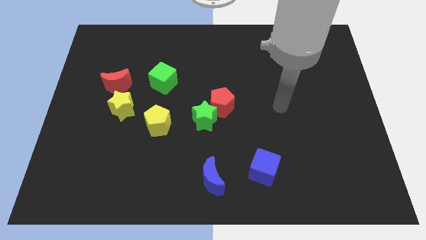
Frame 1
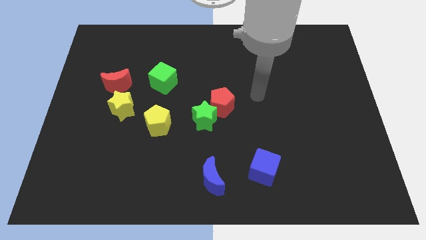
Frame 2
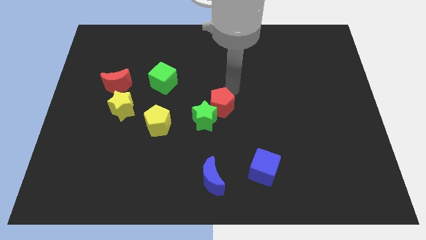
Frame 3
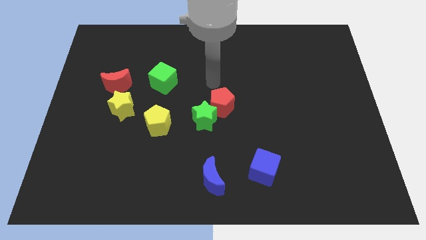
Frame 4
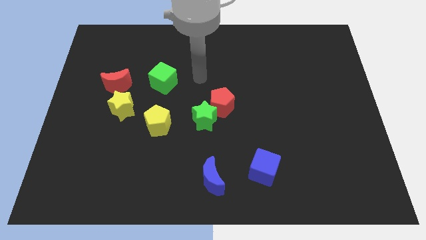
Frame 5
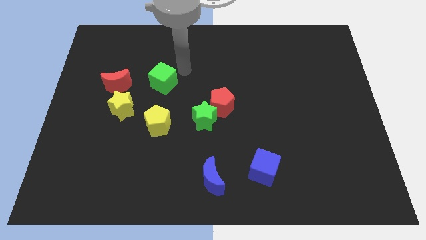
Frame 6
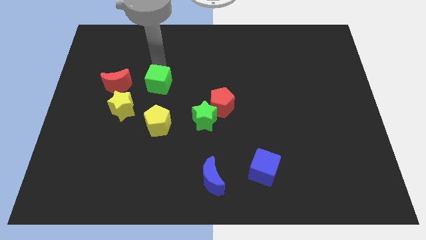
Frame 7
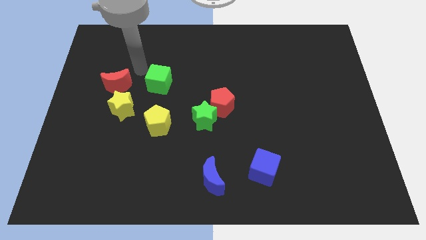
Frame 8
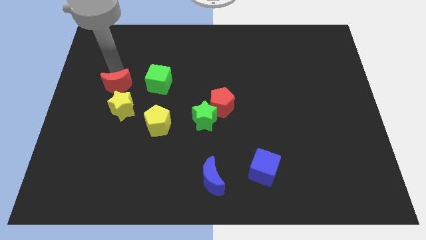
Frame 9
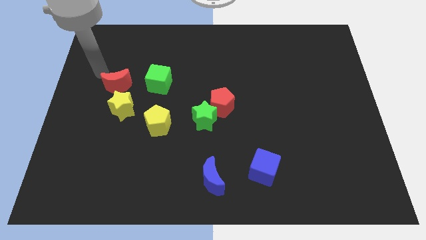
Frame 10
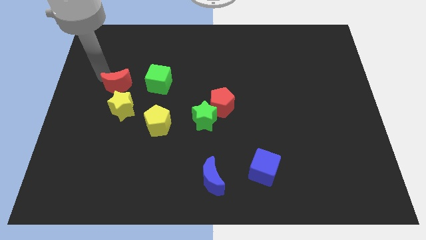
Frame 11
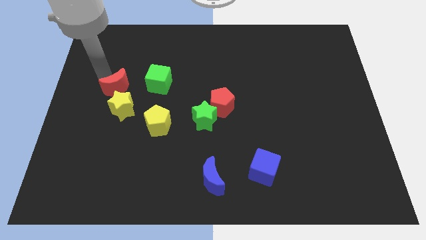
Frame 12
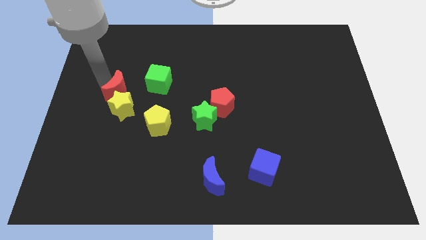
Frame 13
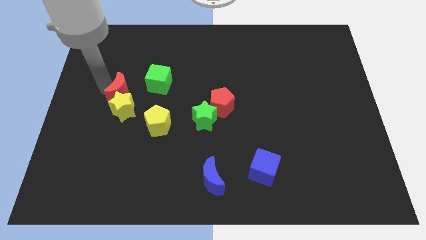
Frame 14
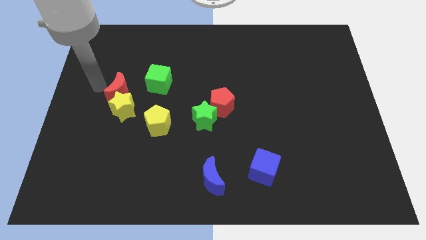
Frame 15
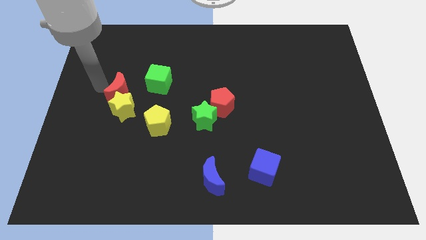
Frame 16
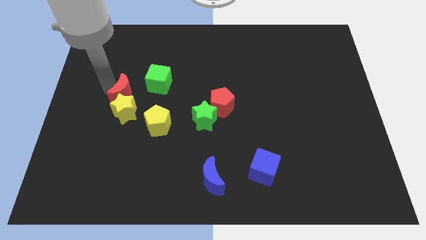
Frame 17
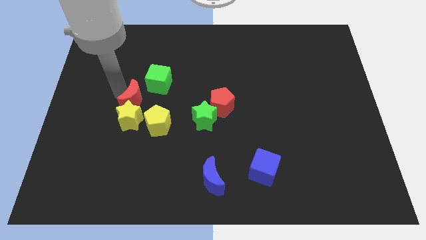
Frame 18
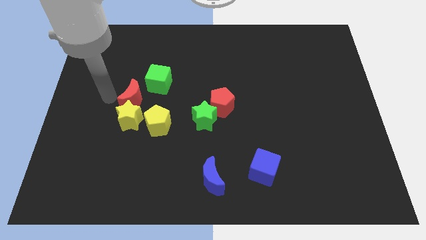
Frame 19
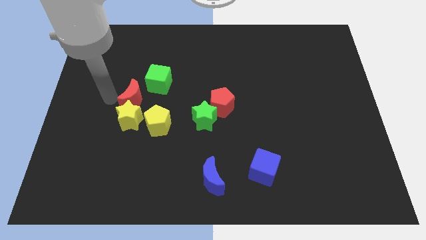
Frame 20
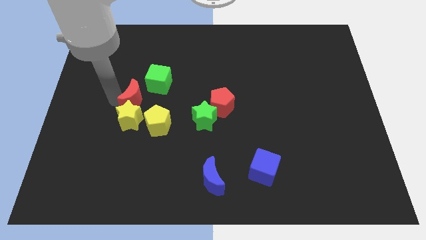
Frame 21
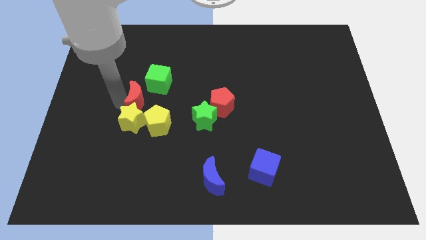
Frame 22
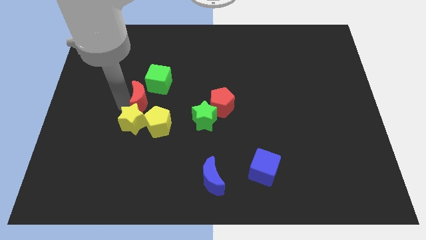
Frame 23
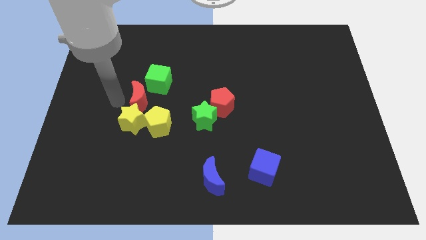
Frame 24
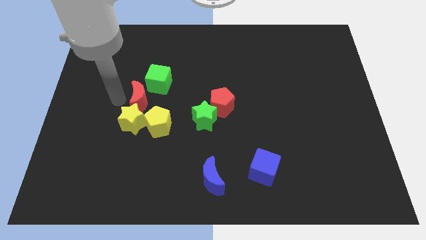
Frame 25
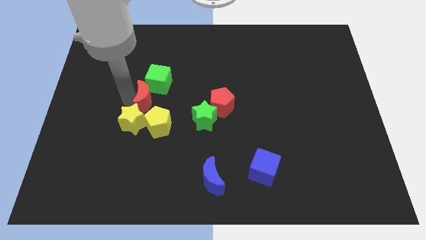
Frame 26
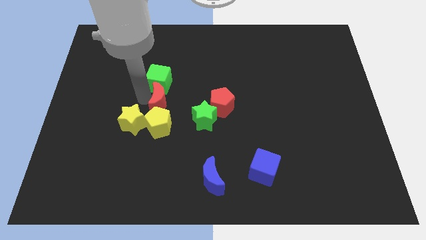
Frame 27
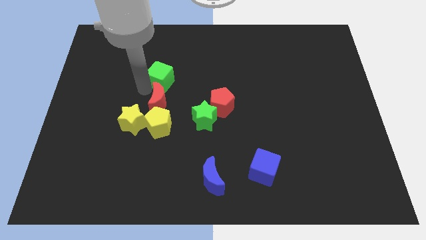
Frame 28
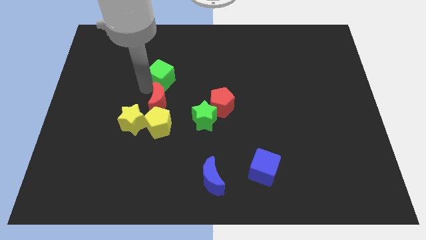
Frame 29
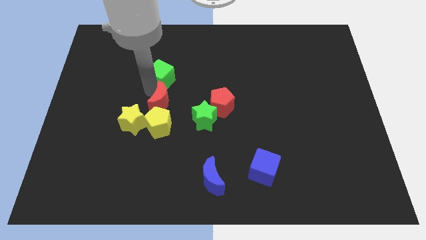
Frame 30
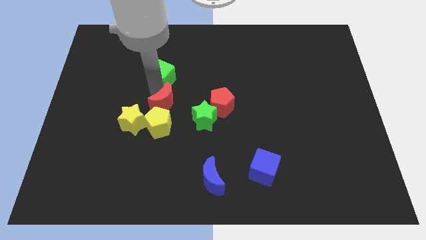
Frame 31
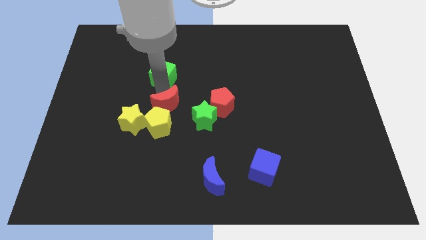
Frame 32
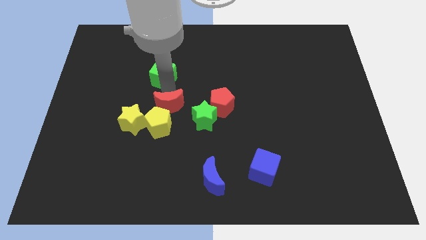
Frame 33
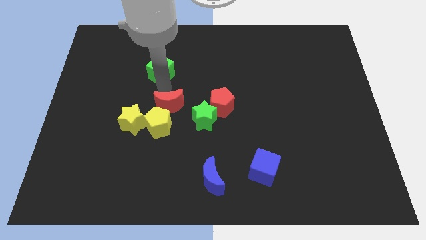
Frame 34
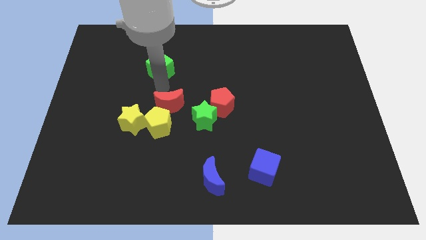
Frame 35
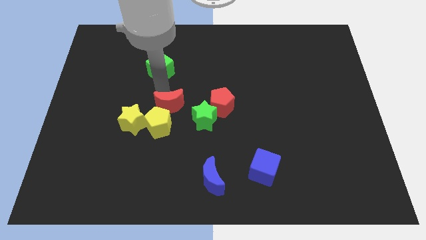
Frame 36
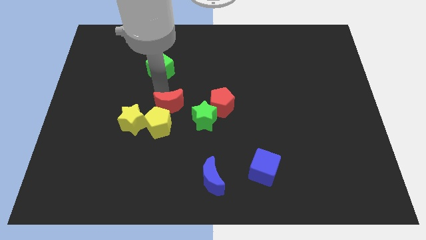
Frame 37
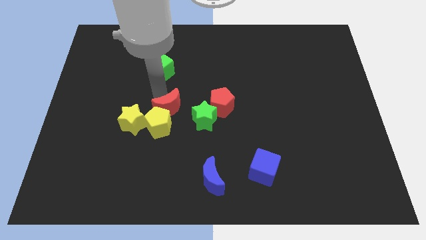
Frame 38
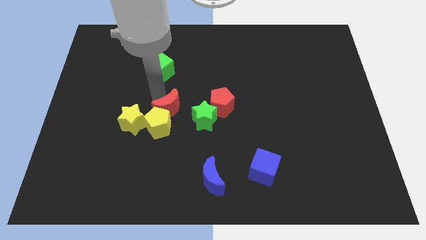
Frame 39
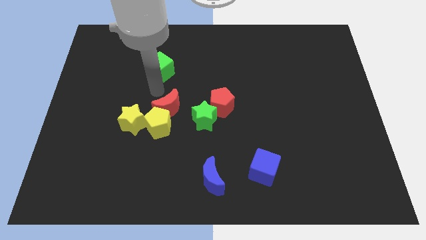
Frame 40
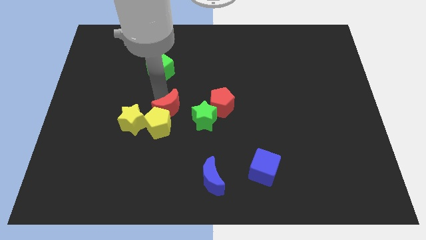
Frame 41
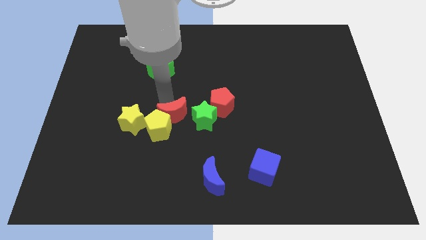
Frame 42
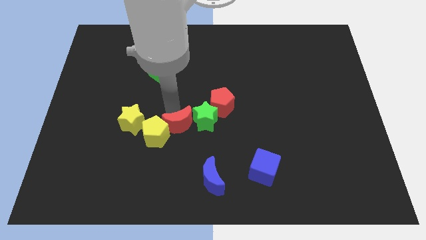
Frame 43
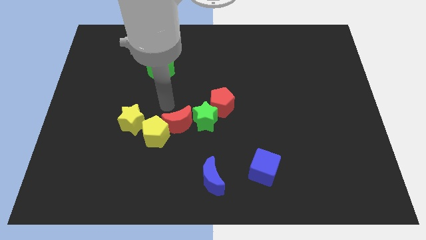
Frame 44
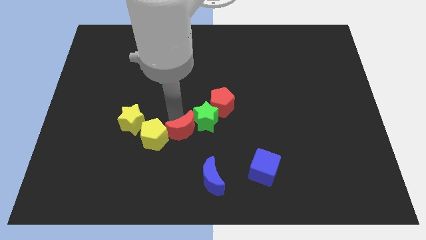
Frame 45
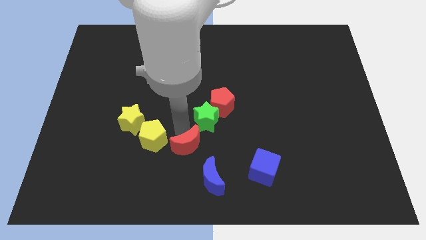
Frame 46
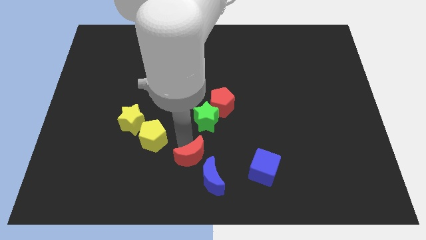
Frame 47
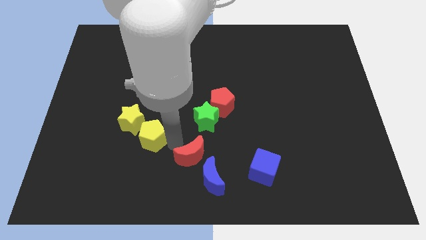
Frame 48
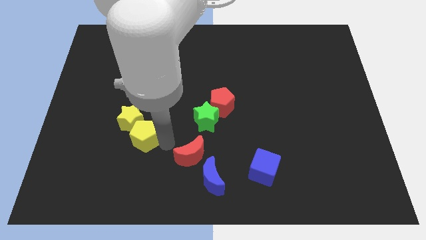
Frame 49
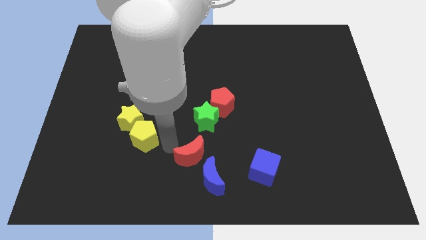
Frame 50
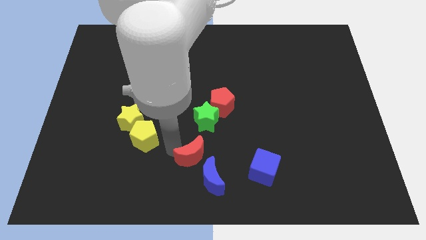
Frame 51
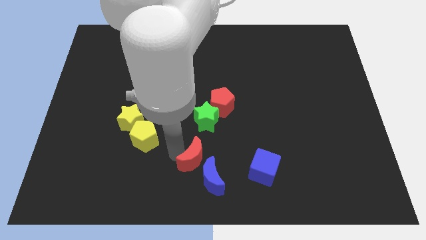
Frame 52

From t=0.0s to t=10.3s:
push the red moon close to the blue moon

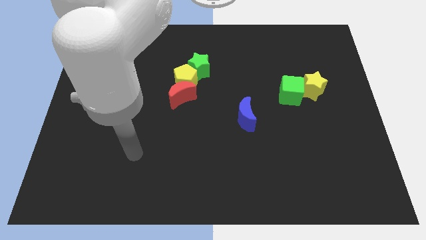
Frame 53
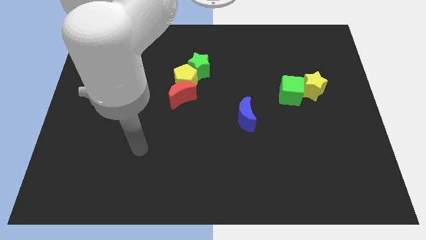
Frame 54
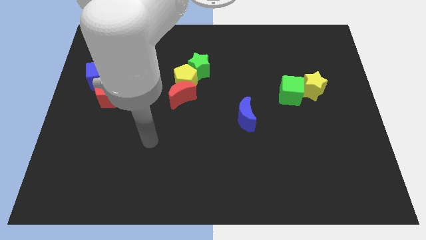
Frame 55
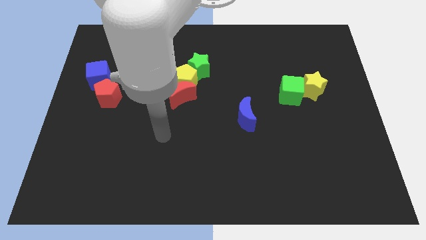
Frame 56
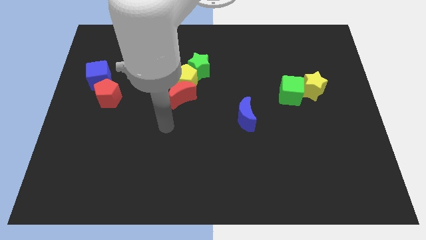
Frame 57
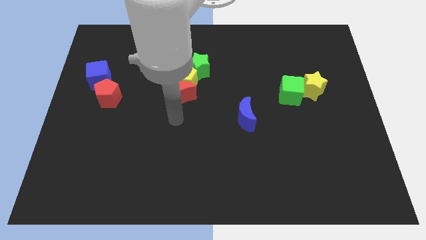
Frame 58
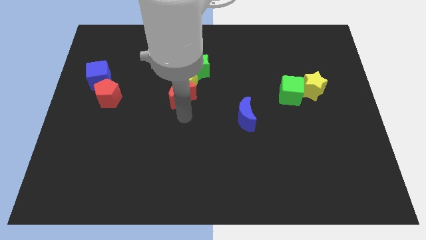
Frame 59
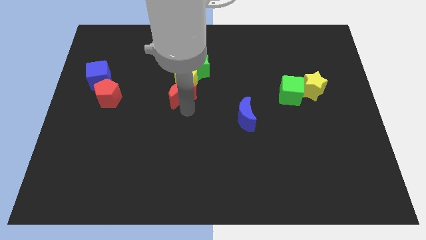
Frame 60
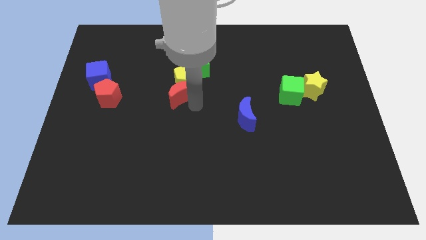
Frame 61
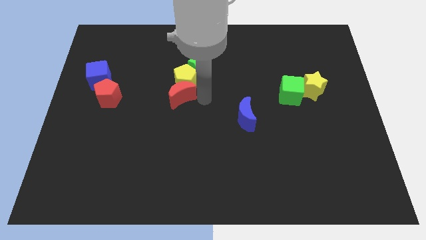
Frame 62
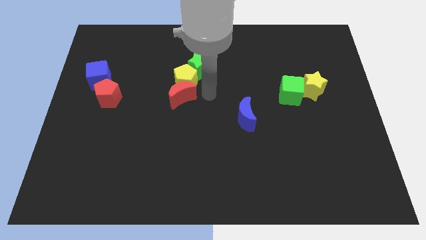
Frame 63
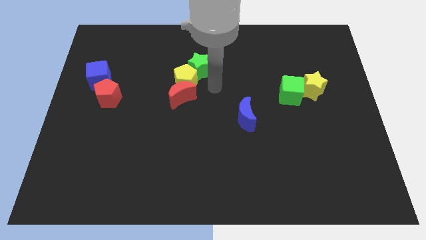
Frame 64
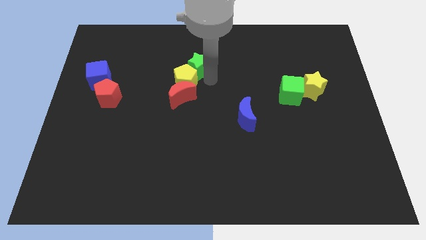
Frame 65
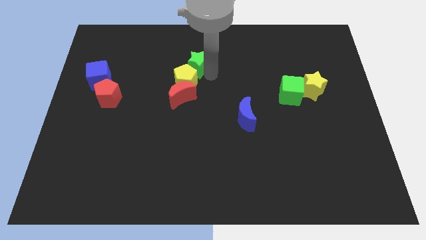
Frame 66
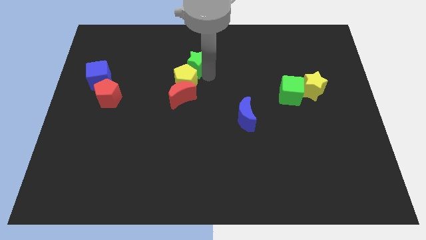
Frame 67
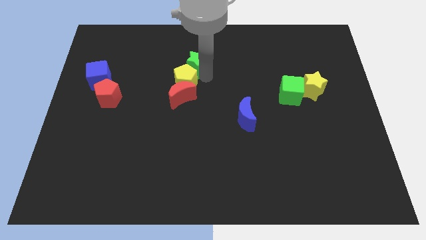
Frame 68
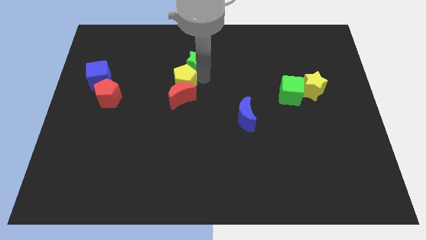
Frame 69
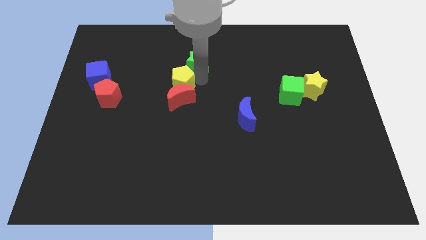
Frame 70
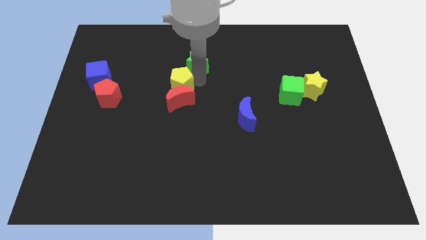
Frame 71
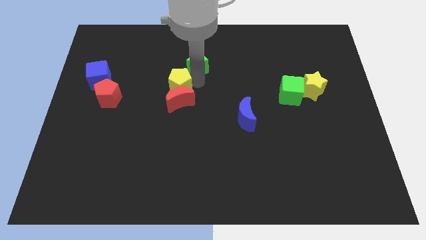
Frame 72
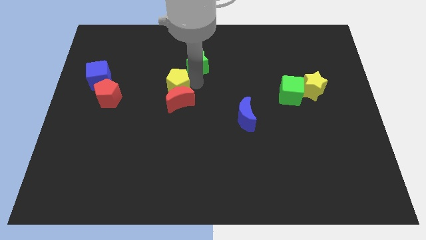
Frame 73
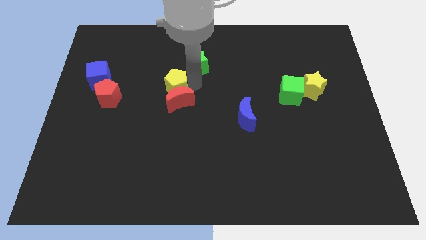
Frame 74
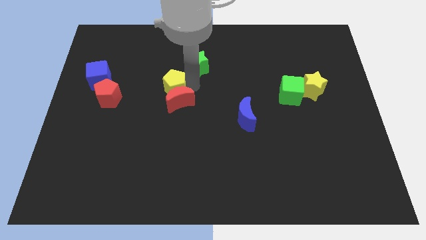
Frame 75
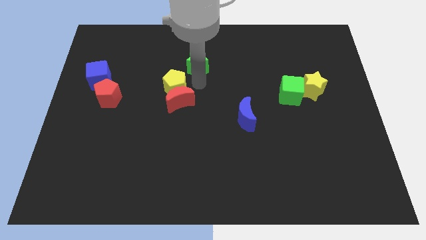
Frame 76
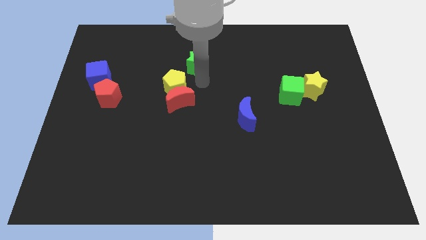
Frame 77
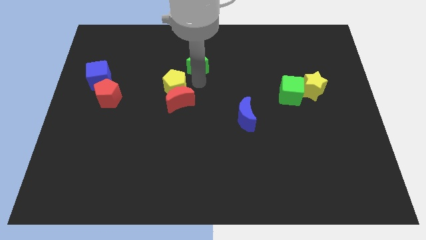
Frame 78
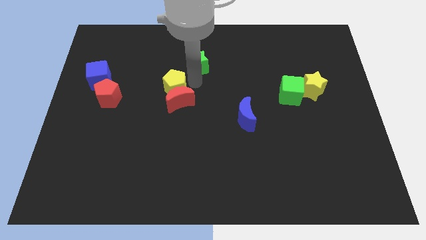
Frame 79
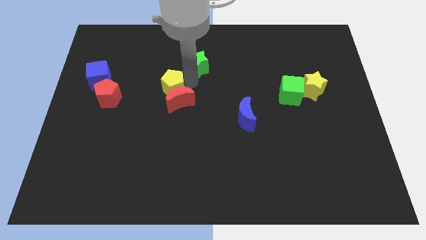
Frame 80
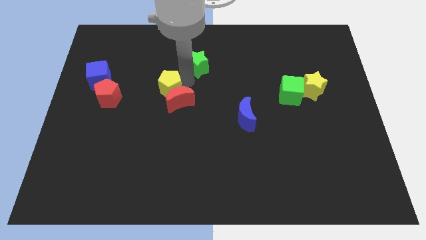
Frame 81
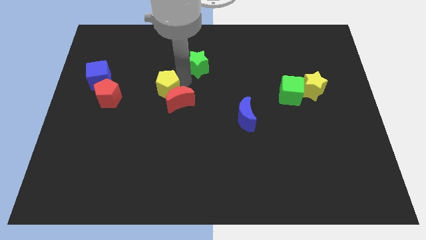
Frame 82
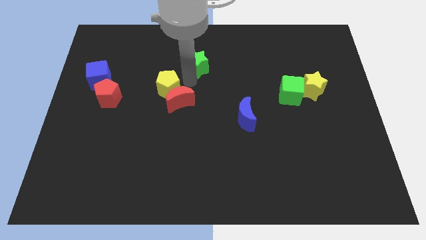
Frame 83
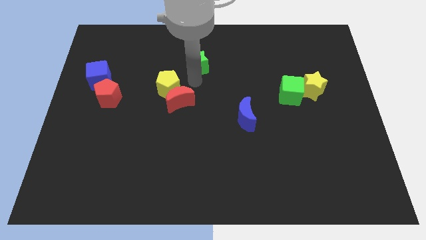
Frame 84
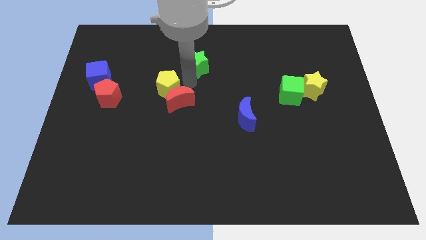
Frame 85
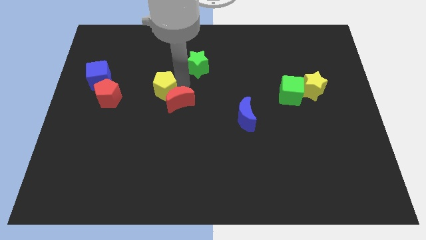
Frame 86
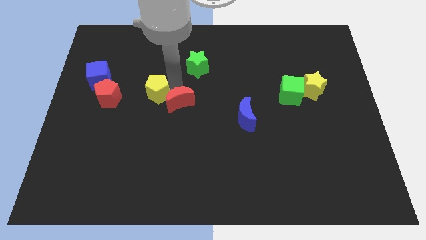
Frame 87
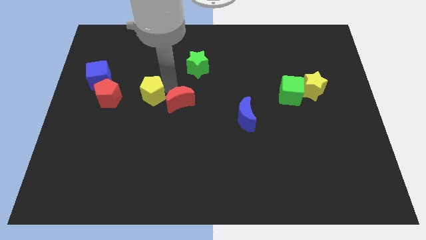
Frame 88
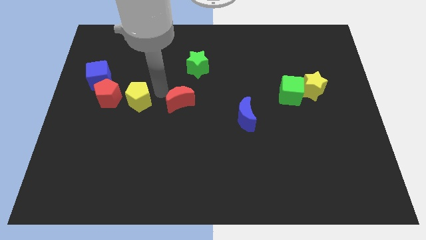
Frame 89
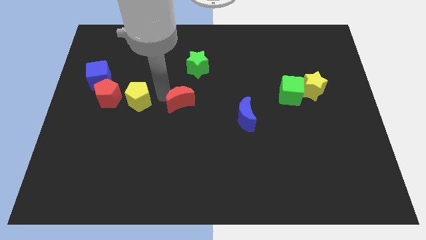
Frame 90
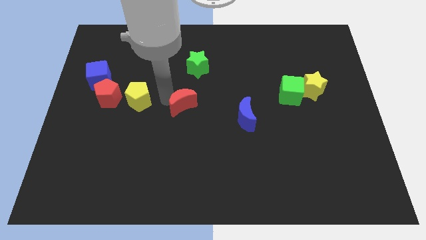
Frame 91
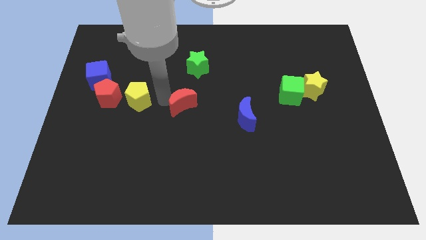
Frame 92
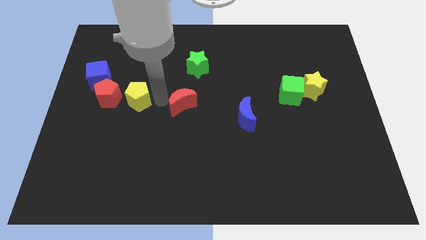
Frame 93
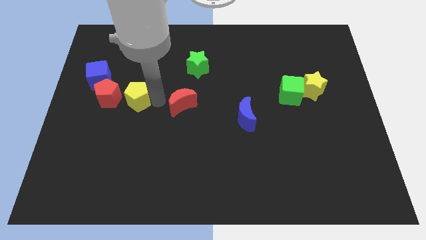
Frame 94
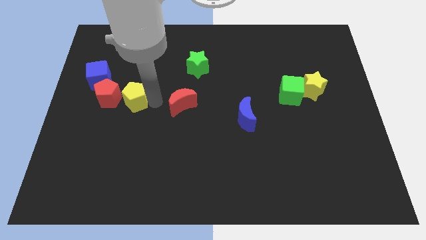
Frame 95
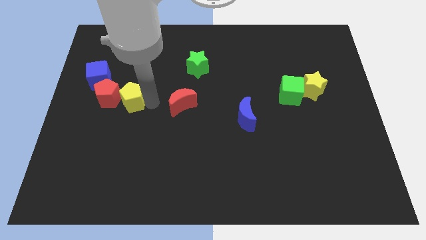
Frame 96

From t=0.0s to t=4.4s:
move the yellow pentagon close to the red pentagon
